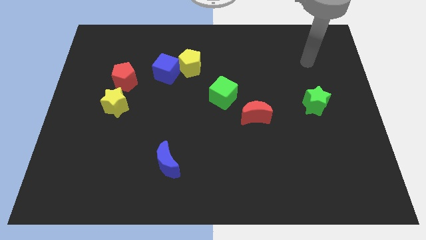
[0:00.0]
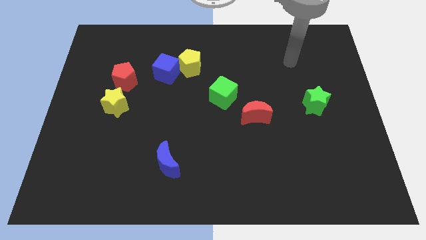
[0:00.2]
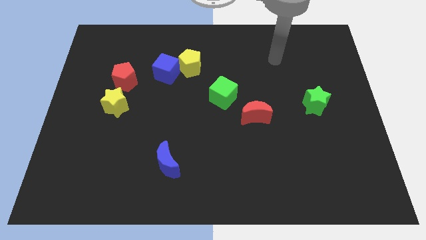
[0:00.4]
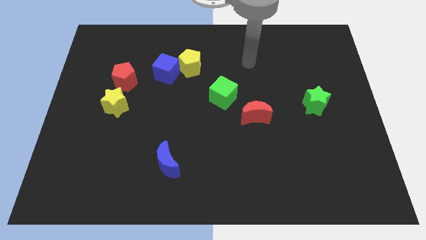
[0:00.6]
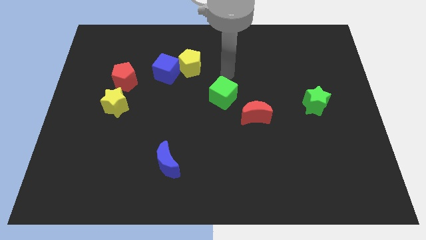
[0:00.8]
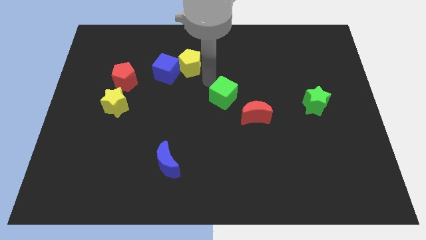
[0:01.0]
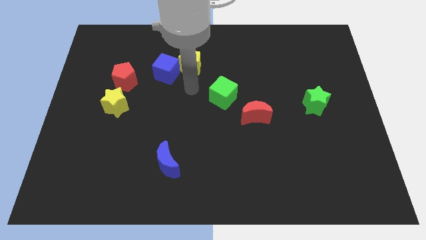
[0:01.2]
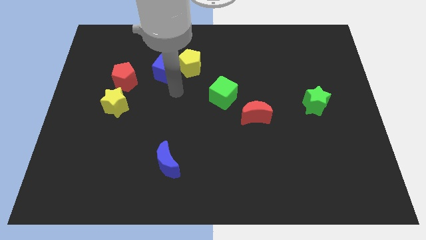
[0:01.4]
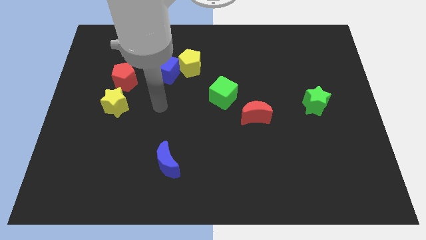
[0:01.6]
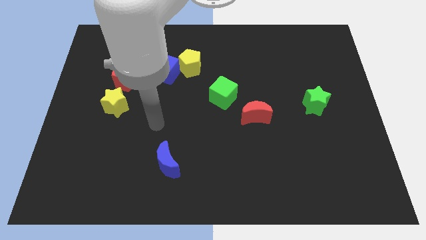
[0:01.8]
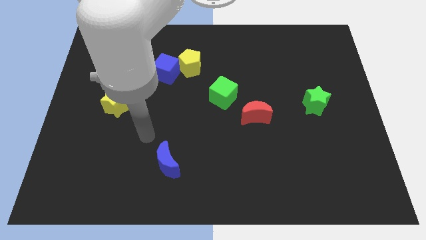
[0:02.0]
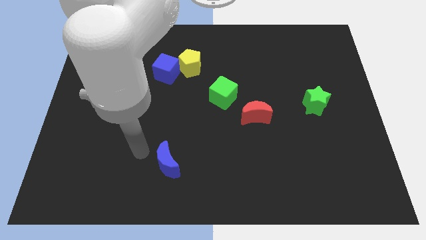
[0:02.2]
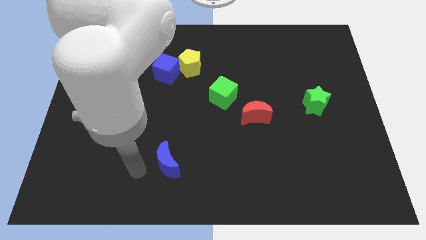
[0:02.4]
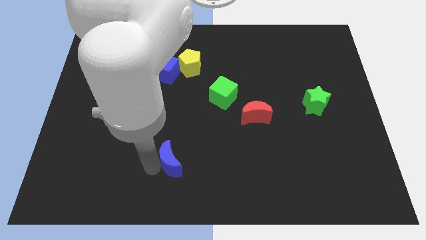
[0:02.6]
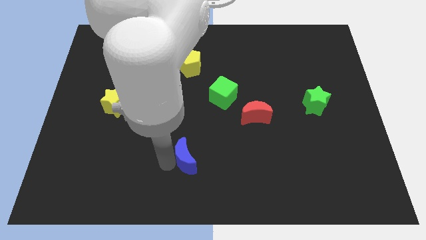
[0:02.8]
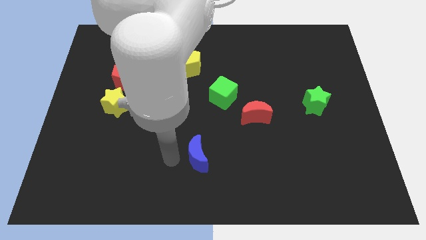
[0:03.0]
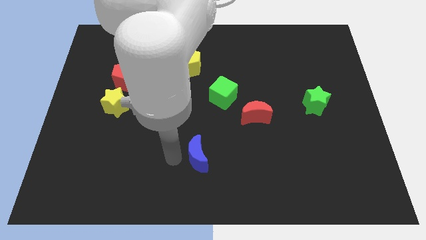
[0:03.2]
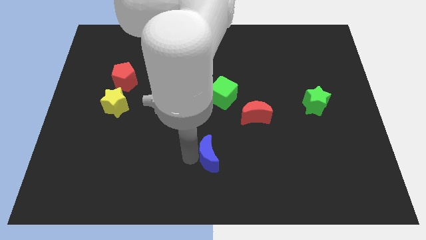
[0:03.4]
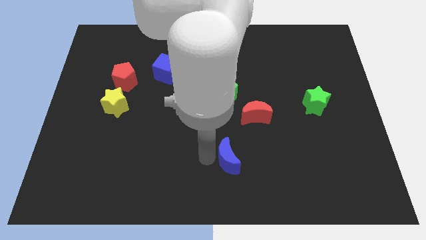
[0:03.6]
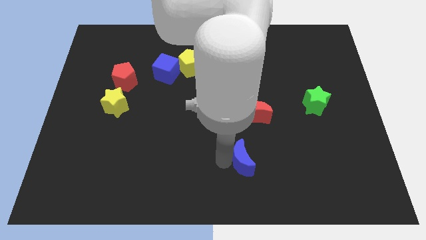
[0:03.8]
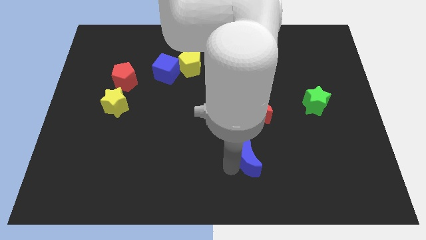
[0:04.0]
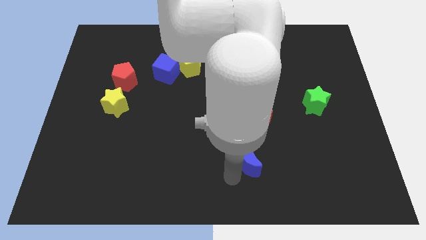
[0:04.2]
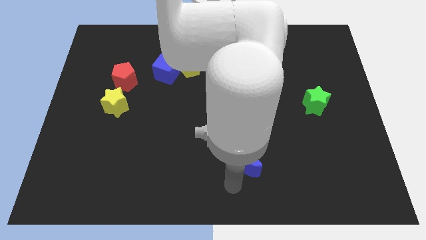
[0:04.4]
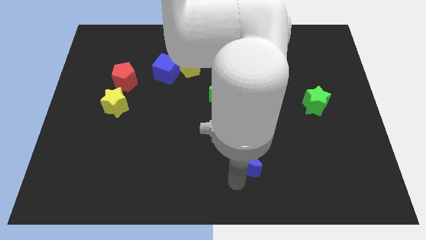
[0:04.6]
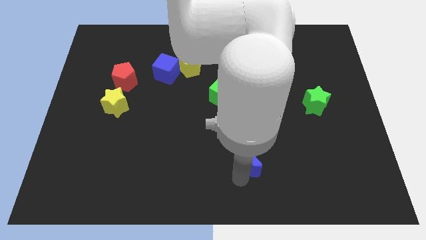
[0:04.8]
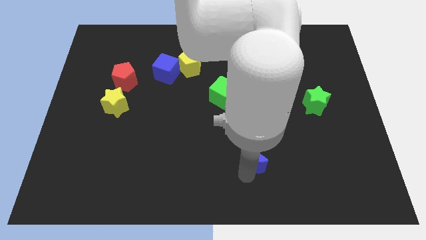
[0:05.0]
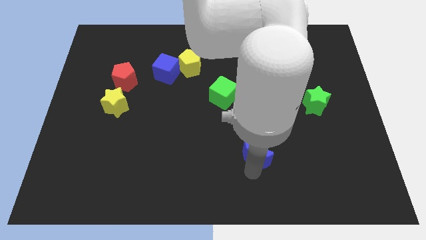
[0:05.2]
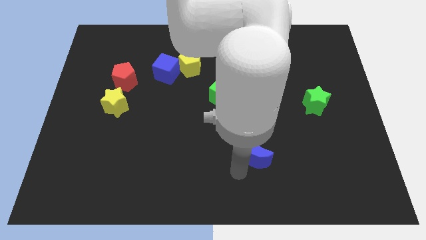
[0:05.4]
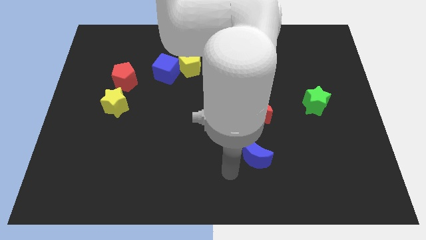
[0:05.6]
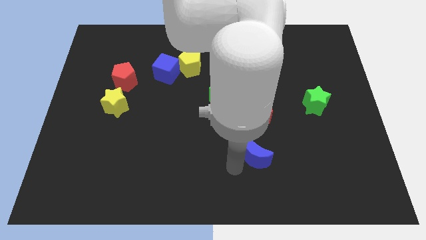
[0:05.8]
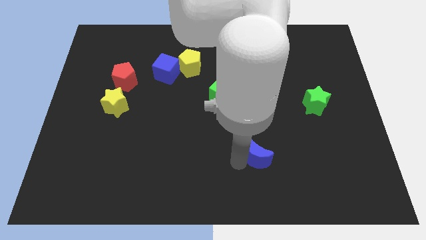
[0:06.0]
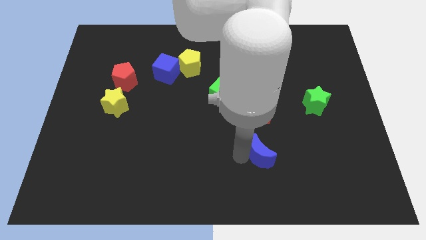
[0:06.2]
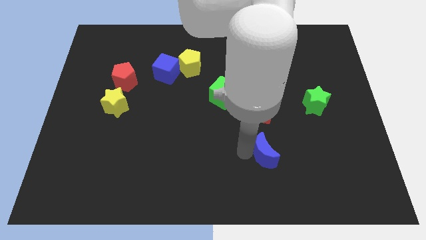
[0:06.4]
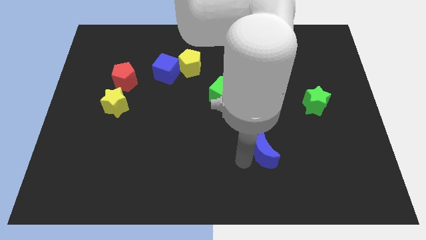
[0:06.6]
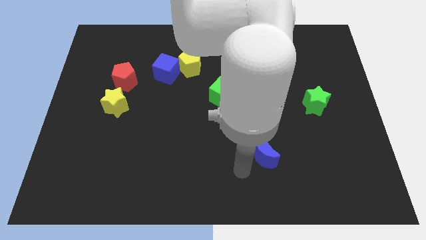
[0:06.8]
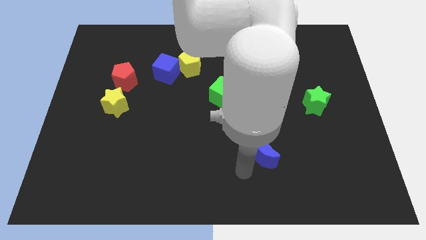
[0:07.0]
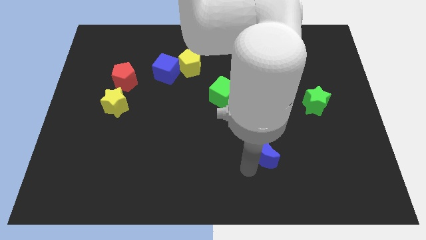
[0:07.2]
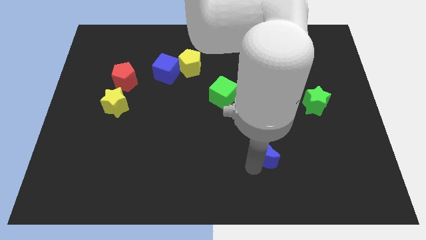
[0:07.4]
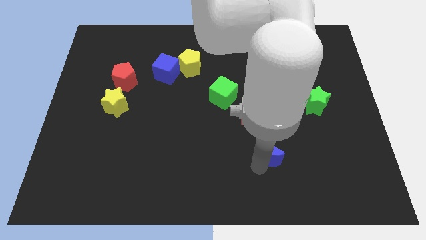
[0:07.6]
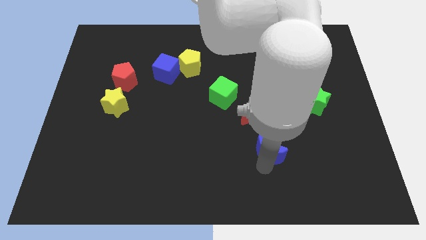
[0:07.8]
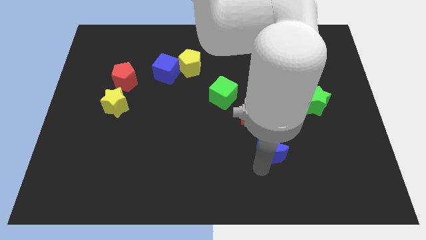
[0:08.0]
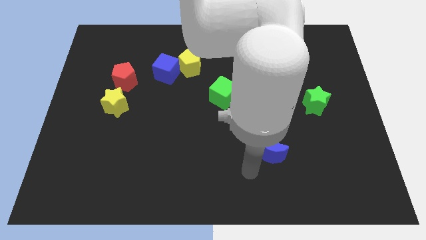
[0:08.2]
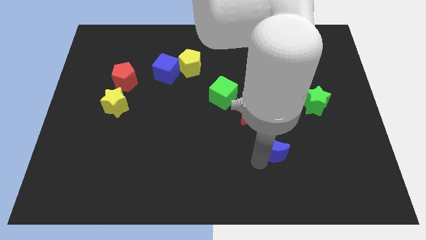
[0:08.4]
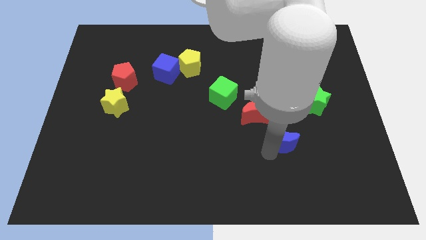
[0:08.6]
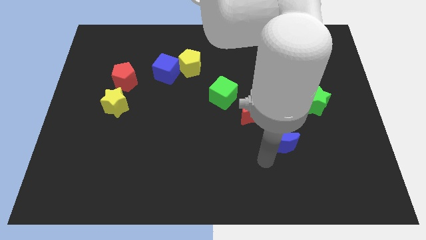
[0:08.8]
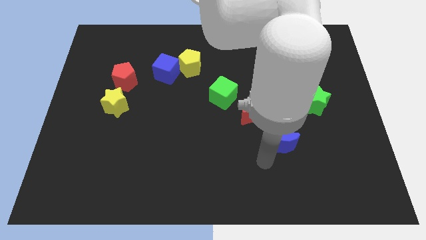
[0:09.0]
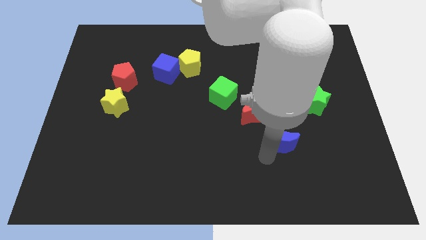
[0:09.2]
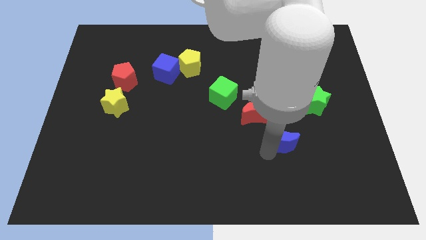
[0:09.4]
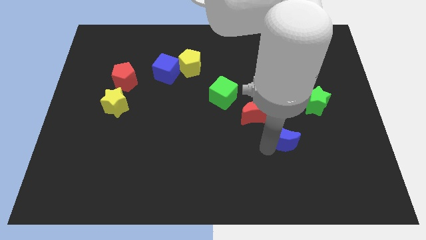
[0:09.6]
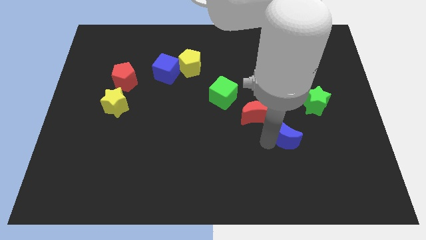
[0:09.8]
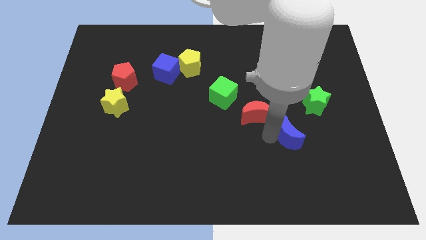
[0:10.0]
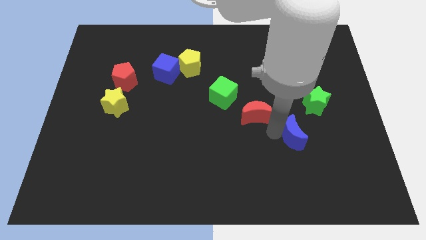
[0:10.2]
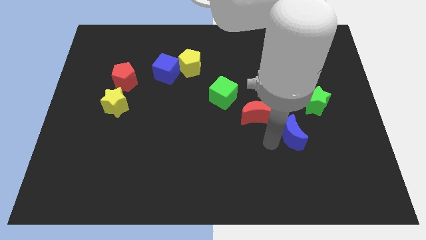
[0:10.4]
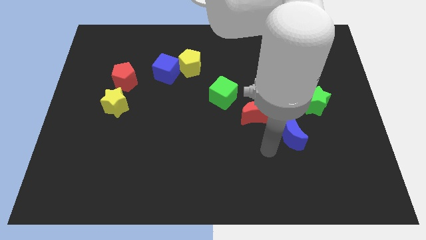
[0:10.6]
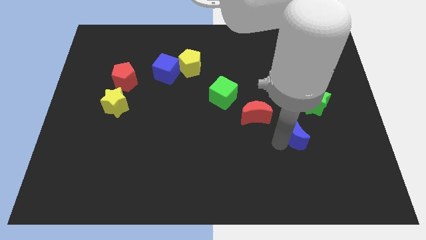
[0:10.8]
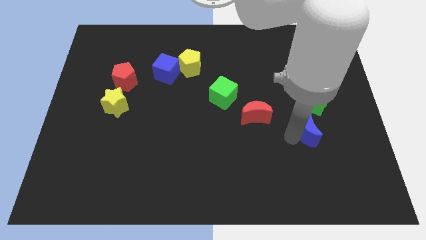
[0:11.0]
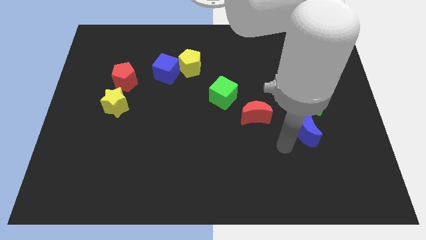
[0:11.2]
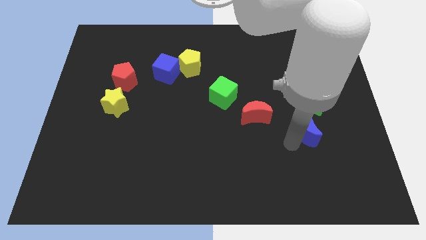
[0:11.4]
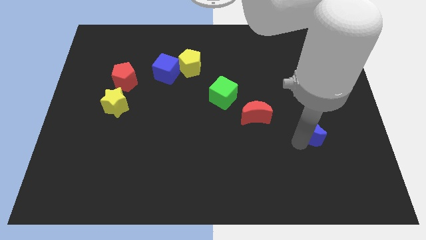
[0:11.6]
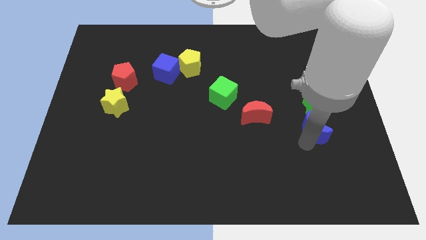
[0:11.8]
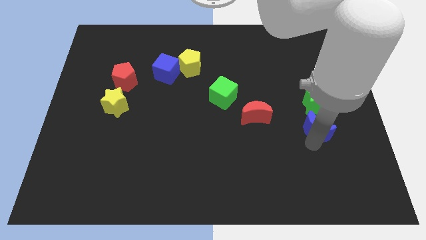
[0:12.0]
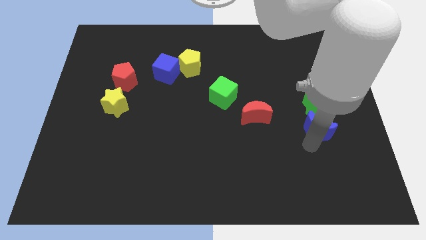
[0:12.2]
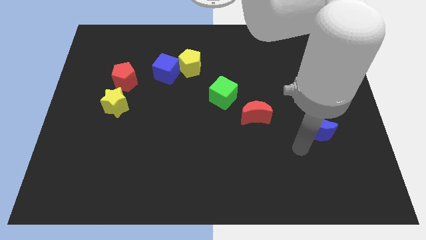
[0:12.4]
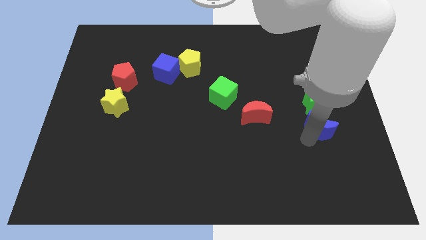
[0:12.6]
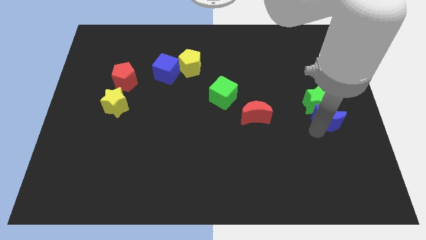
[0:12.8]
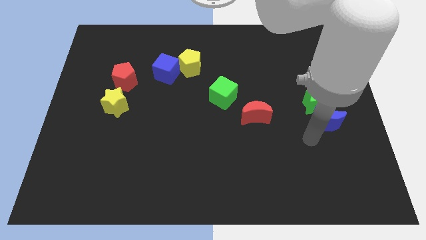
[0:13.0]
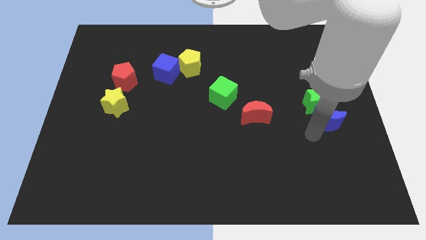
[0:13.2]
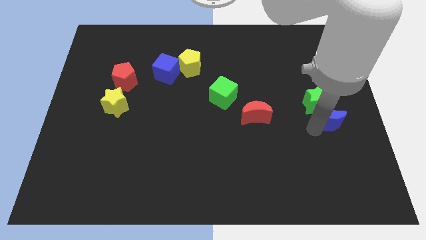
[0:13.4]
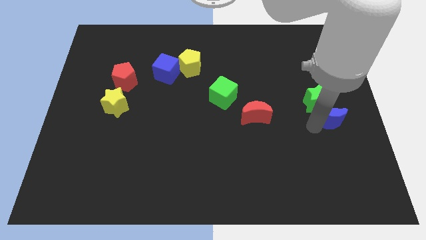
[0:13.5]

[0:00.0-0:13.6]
push the blue moon to the center right
